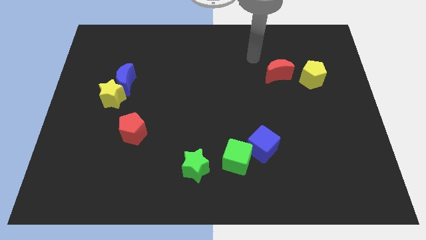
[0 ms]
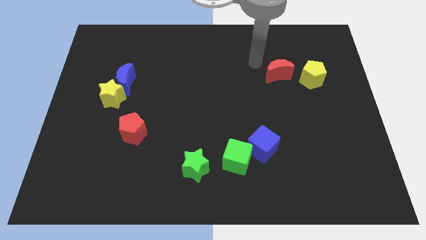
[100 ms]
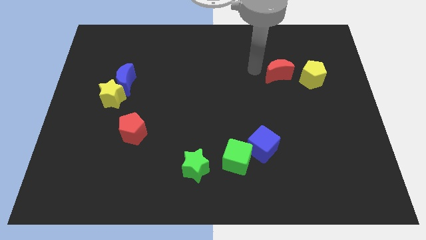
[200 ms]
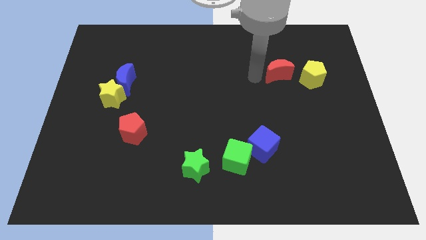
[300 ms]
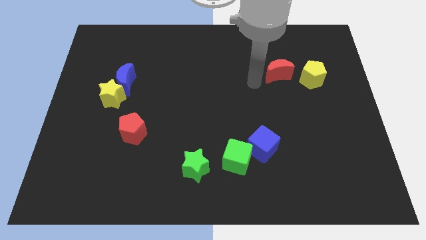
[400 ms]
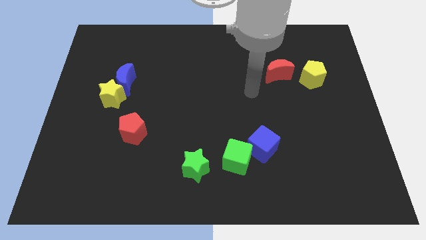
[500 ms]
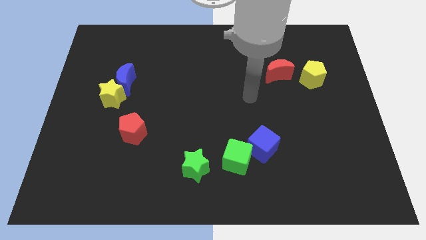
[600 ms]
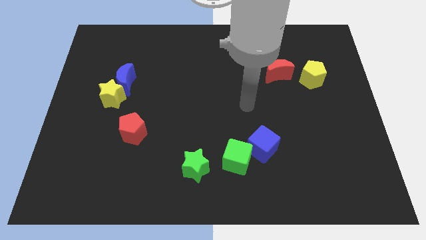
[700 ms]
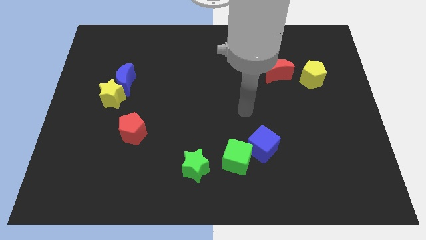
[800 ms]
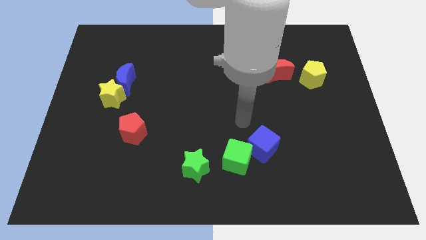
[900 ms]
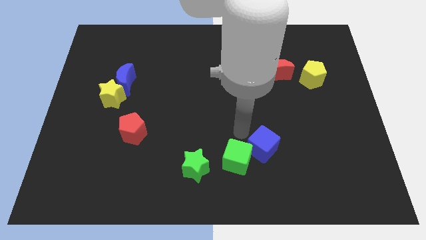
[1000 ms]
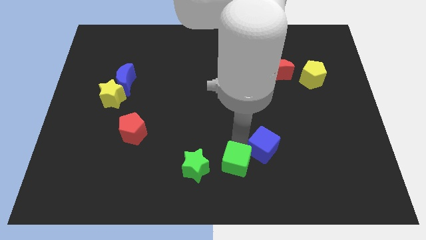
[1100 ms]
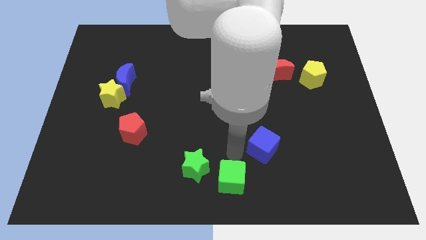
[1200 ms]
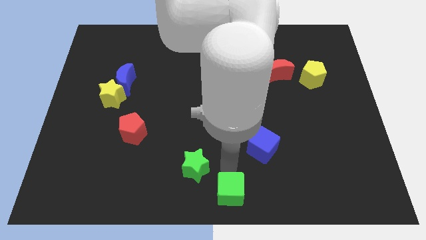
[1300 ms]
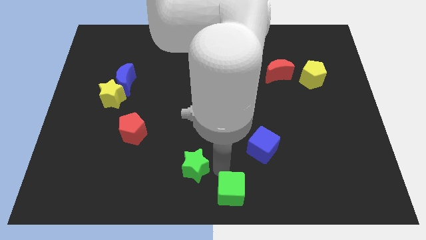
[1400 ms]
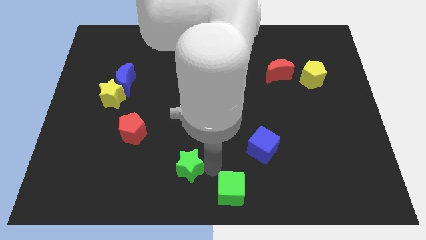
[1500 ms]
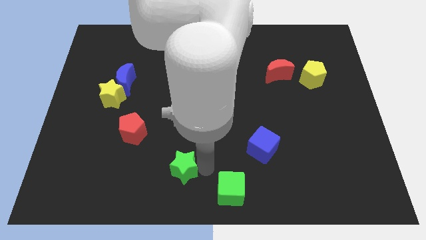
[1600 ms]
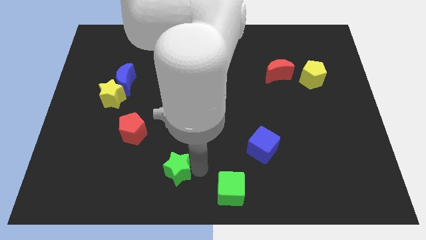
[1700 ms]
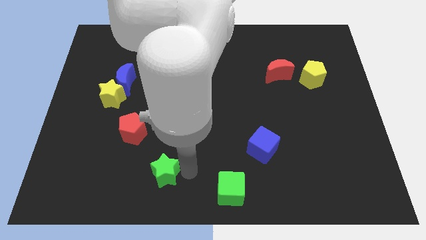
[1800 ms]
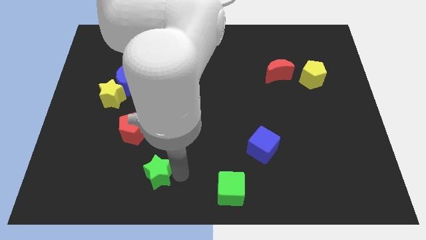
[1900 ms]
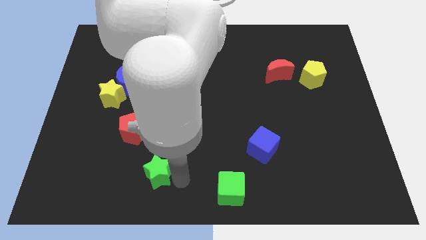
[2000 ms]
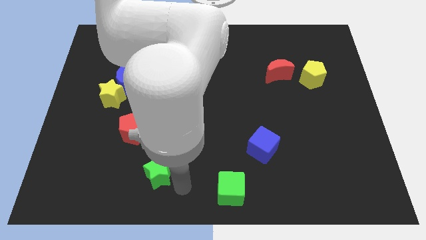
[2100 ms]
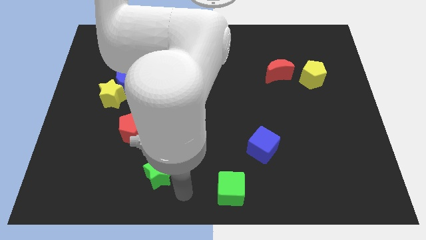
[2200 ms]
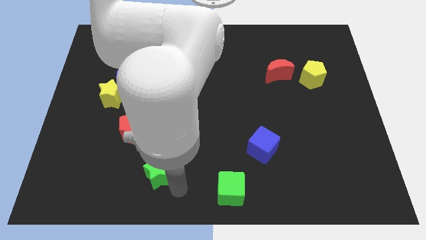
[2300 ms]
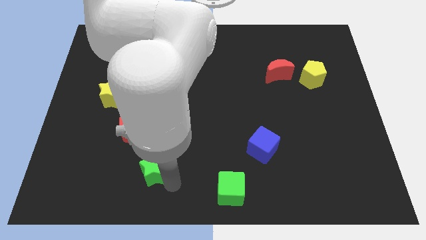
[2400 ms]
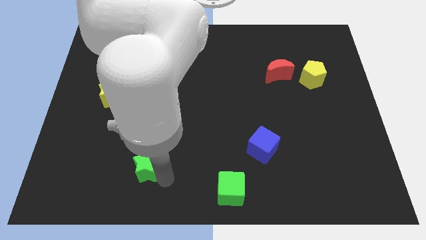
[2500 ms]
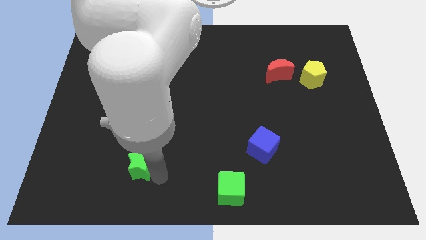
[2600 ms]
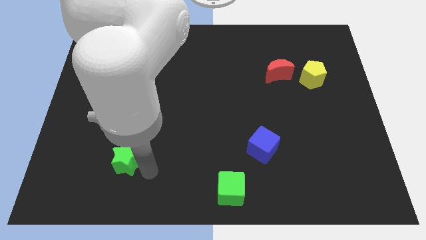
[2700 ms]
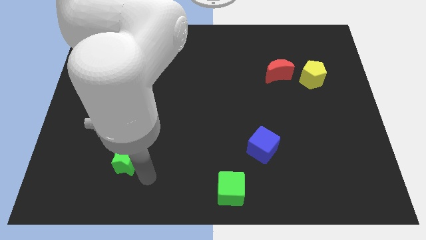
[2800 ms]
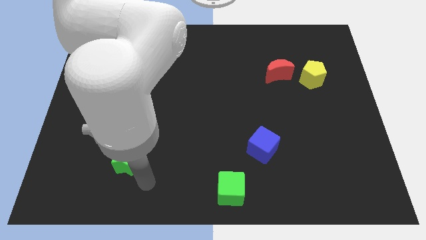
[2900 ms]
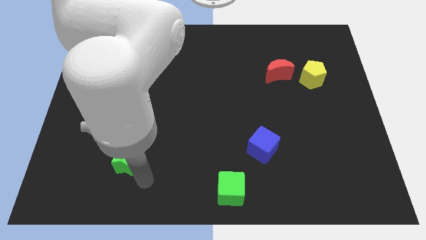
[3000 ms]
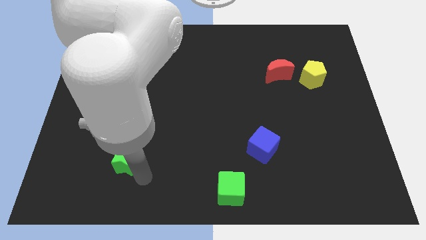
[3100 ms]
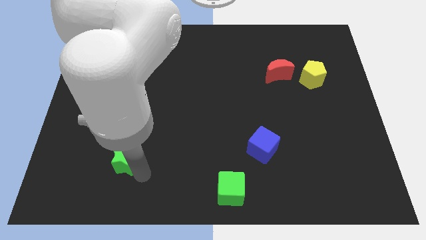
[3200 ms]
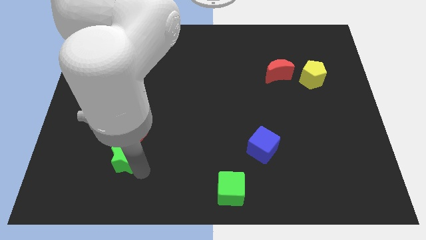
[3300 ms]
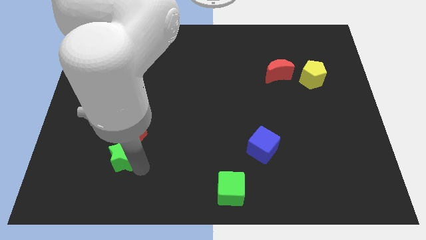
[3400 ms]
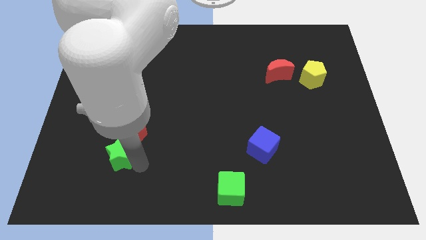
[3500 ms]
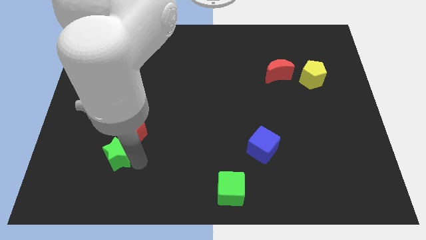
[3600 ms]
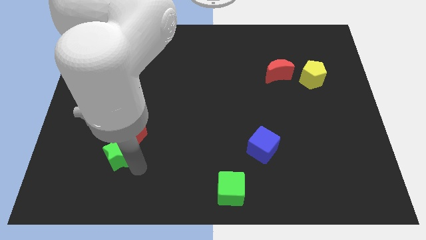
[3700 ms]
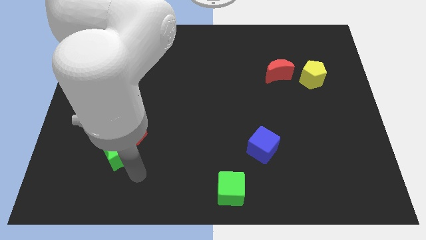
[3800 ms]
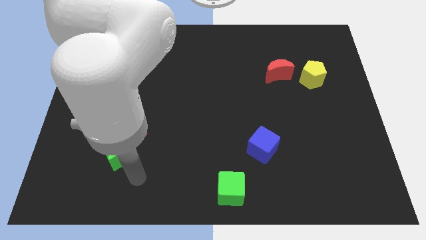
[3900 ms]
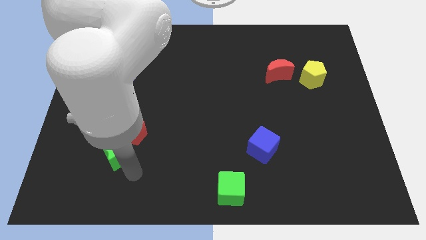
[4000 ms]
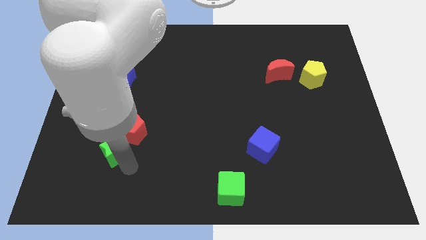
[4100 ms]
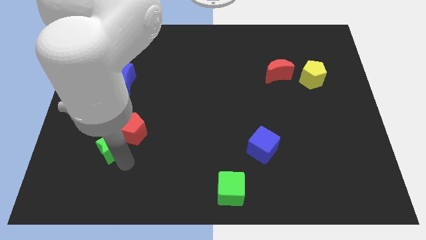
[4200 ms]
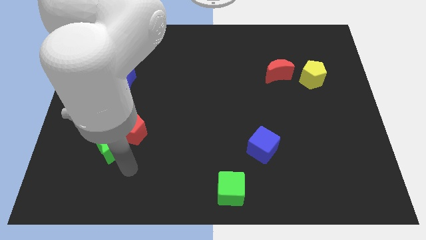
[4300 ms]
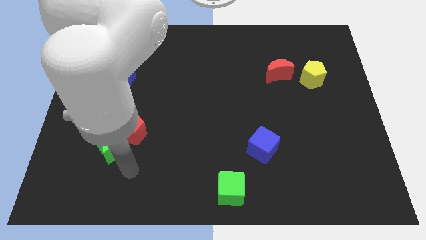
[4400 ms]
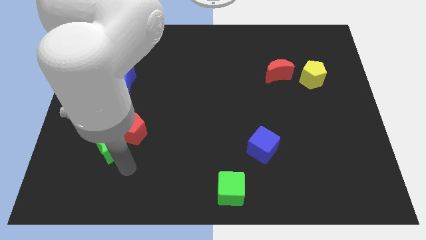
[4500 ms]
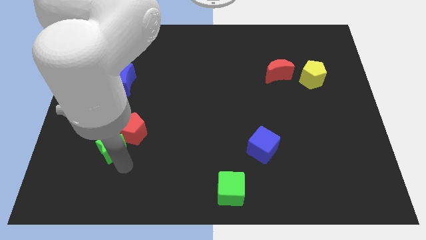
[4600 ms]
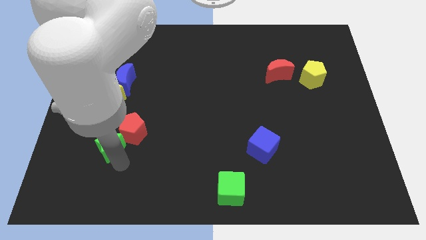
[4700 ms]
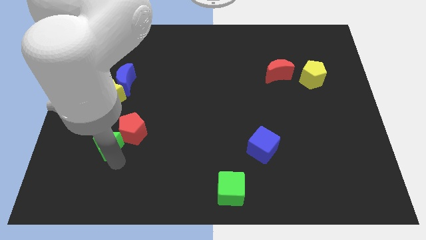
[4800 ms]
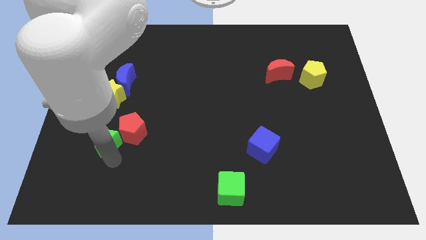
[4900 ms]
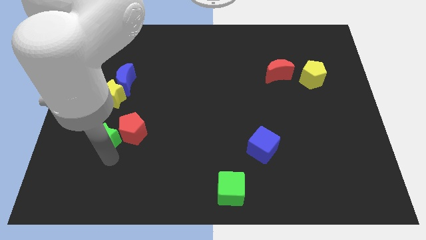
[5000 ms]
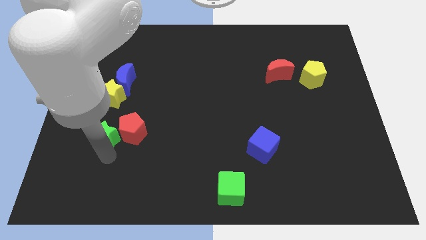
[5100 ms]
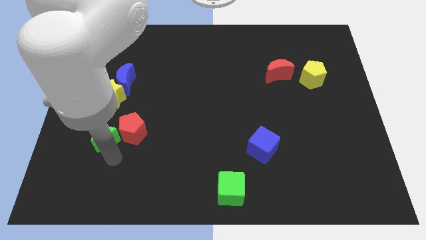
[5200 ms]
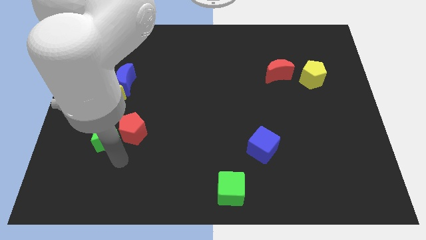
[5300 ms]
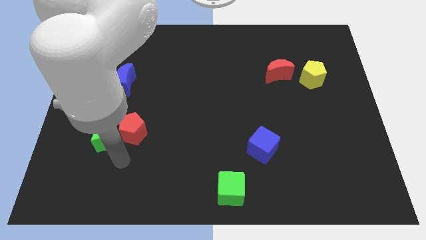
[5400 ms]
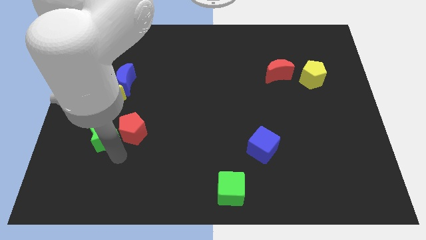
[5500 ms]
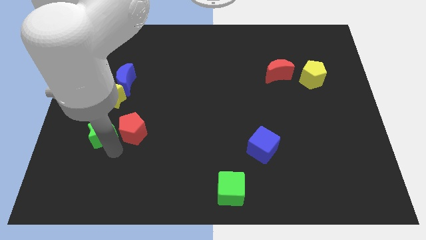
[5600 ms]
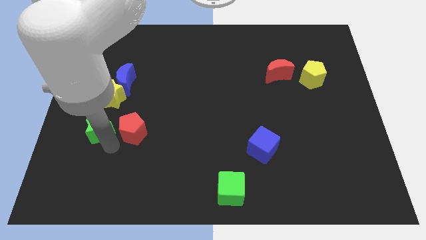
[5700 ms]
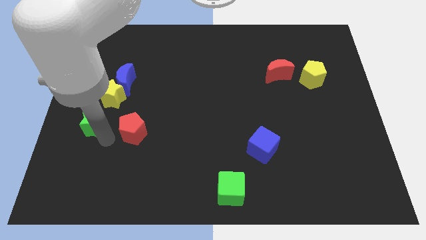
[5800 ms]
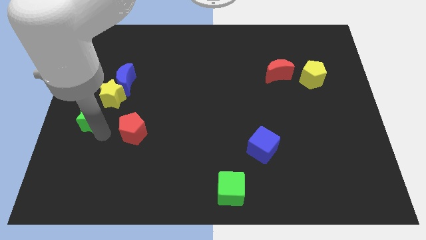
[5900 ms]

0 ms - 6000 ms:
push the green star to the left side of the board

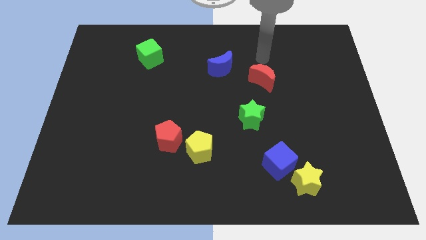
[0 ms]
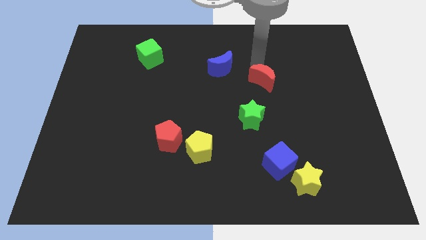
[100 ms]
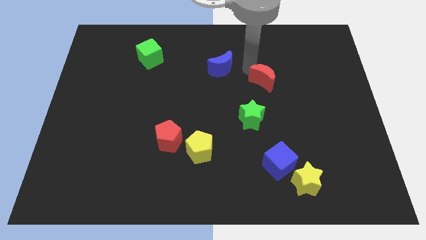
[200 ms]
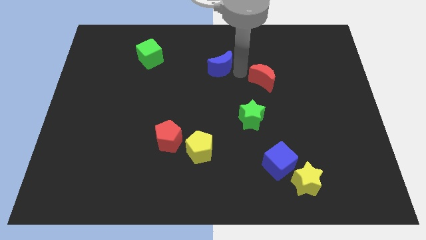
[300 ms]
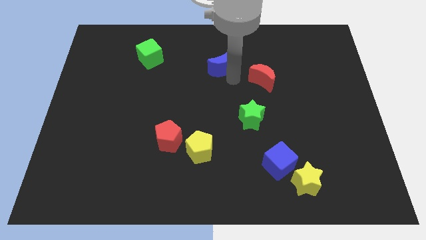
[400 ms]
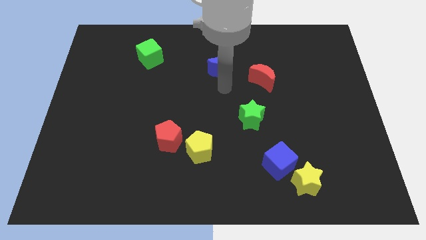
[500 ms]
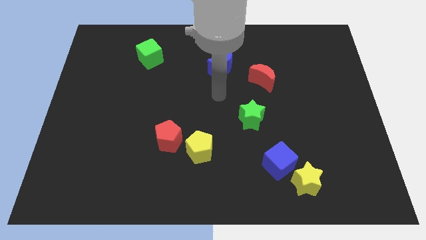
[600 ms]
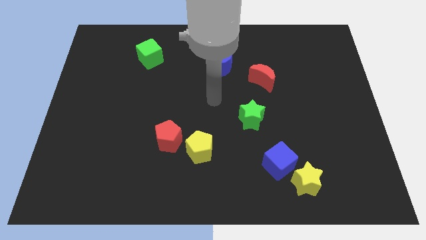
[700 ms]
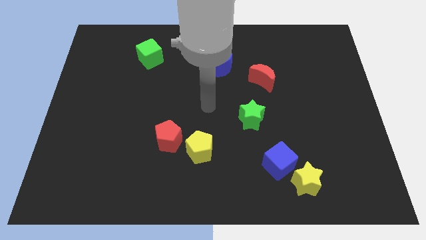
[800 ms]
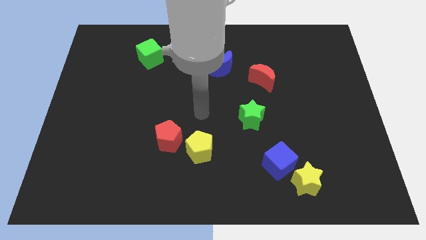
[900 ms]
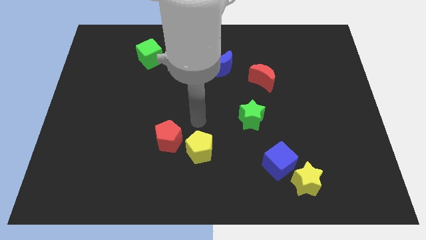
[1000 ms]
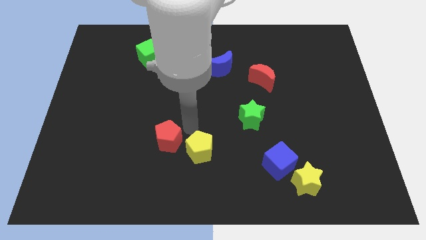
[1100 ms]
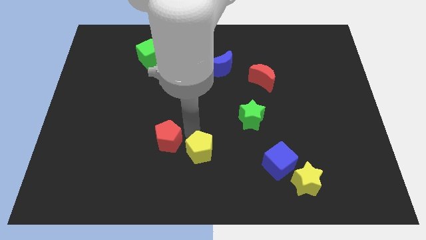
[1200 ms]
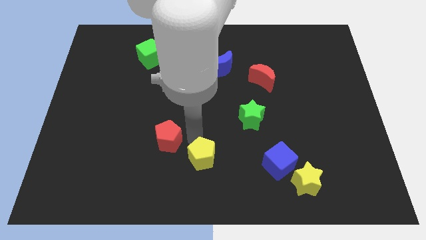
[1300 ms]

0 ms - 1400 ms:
slide the yellow pentagon to the bottom side
